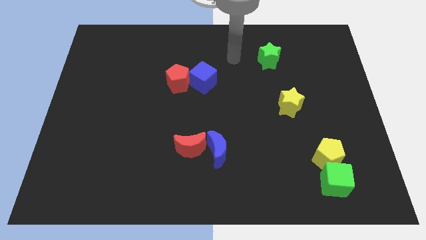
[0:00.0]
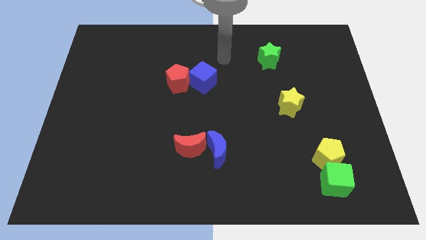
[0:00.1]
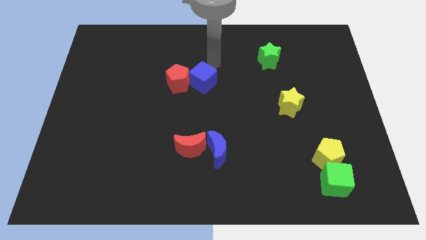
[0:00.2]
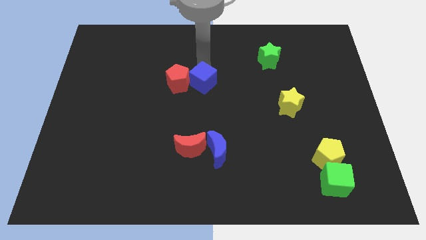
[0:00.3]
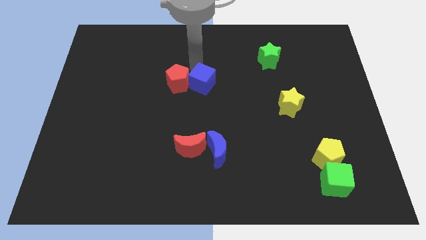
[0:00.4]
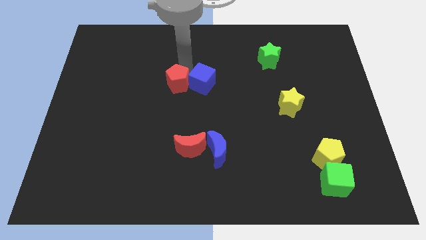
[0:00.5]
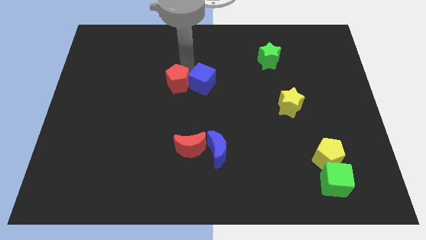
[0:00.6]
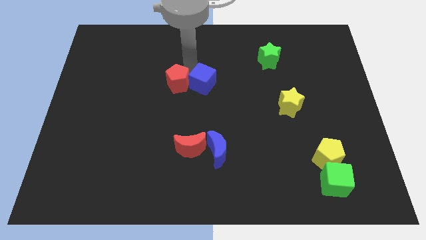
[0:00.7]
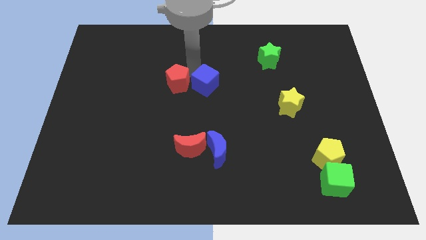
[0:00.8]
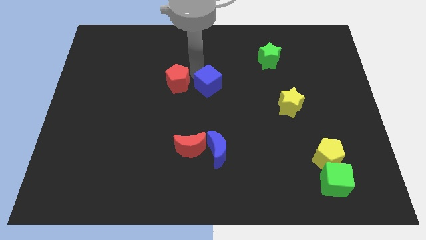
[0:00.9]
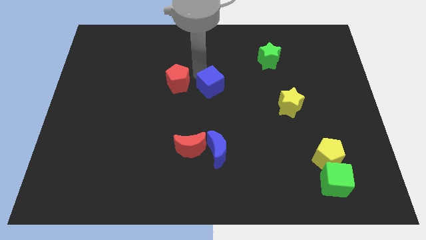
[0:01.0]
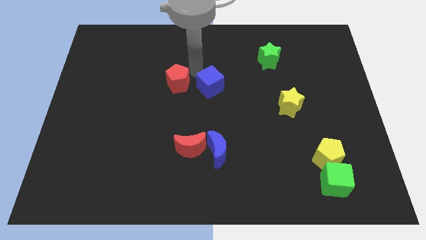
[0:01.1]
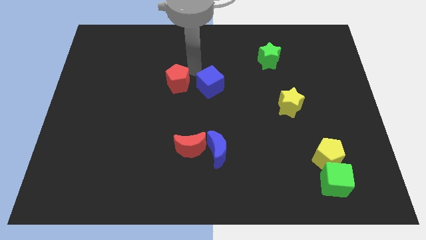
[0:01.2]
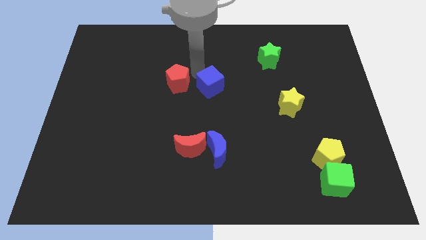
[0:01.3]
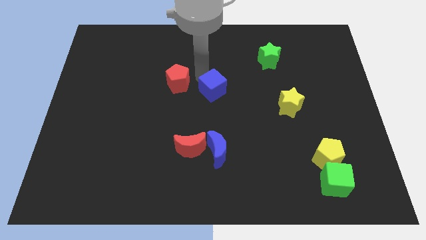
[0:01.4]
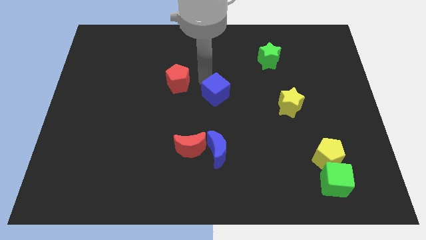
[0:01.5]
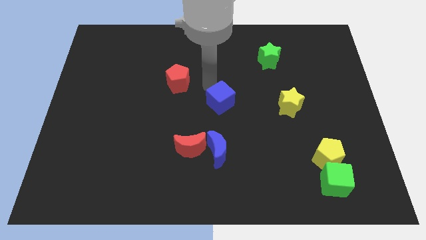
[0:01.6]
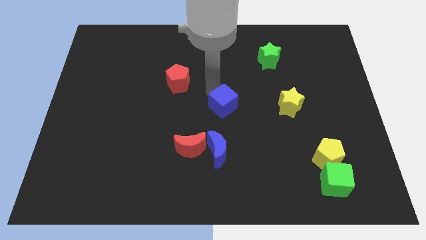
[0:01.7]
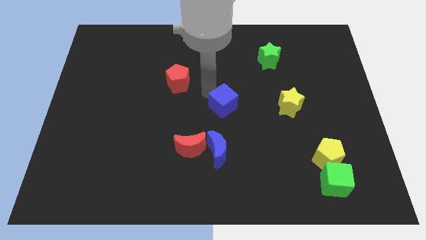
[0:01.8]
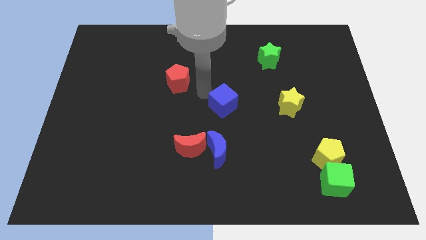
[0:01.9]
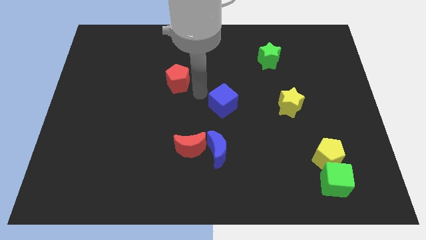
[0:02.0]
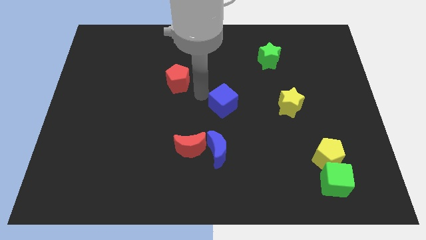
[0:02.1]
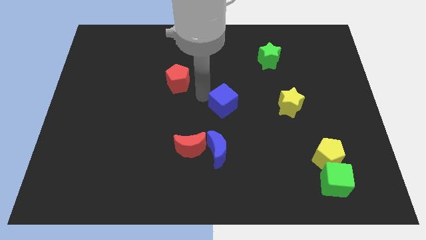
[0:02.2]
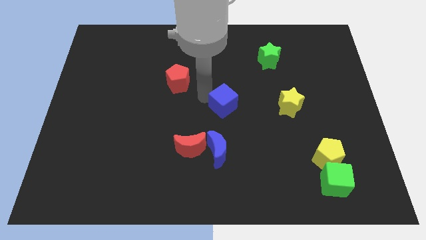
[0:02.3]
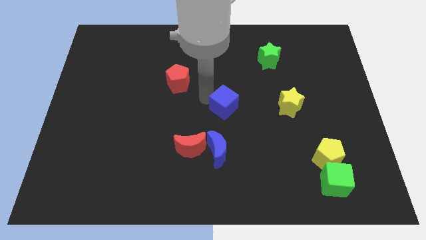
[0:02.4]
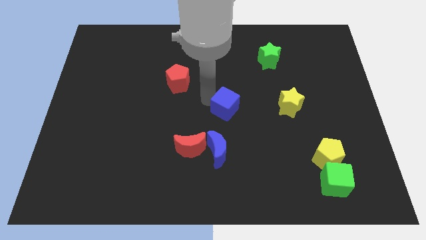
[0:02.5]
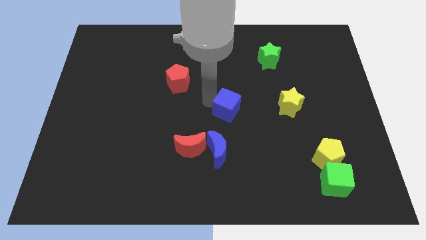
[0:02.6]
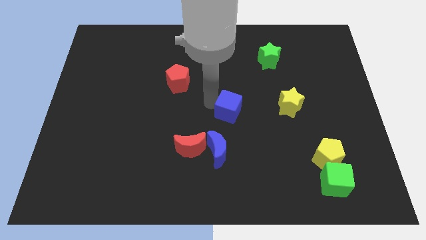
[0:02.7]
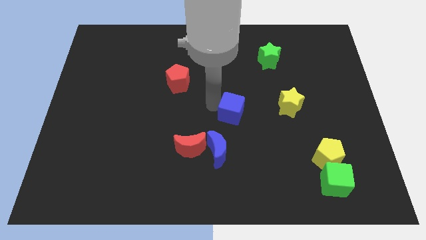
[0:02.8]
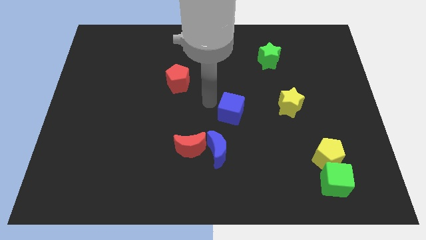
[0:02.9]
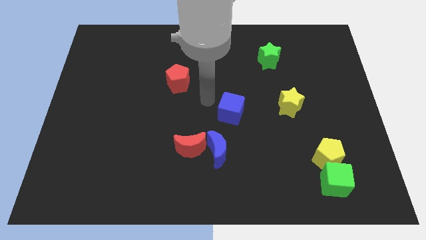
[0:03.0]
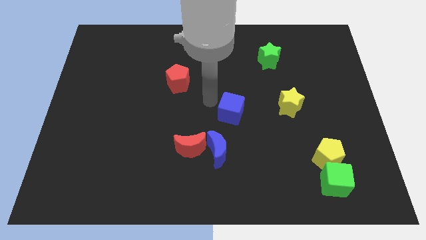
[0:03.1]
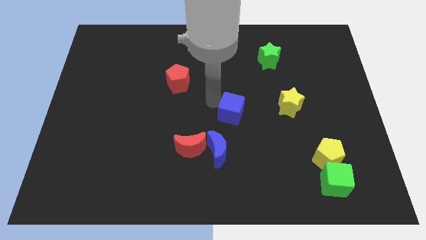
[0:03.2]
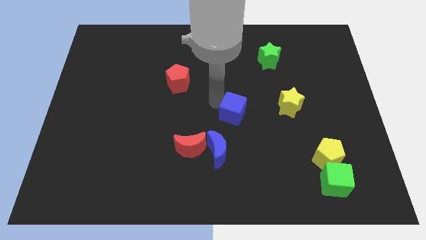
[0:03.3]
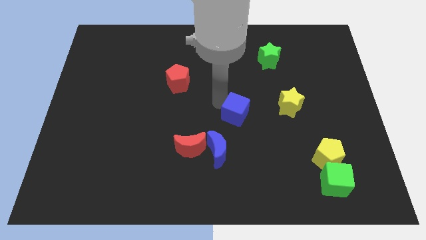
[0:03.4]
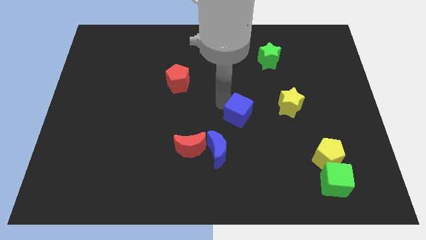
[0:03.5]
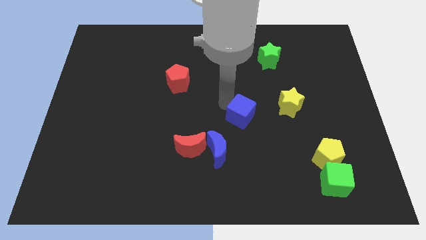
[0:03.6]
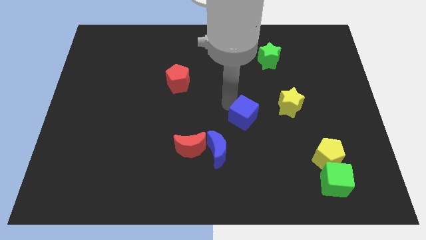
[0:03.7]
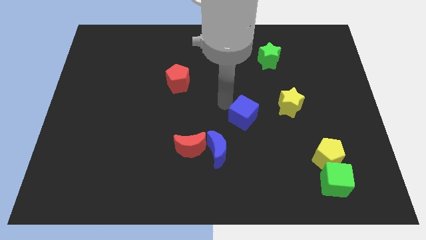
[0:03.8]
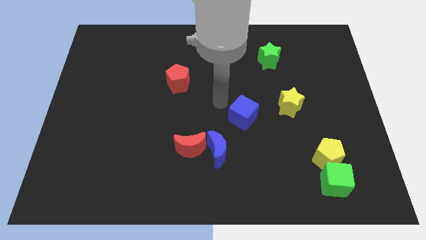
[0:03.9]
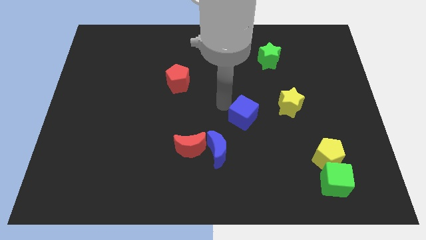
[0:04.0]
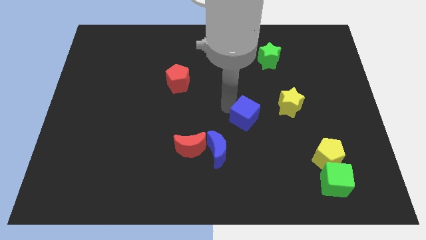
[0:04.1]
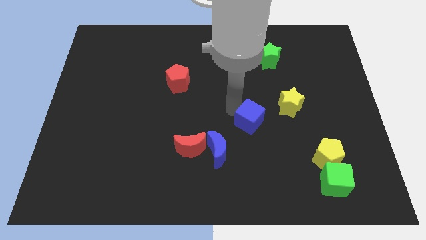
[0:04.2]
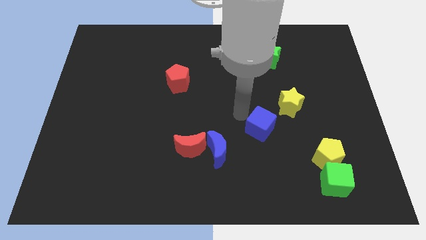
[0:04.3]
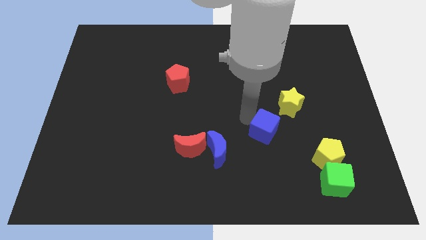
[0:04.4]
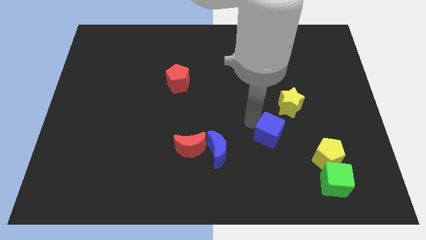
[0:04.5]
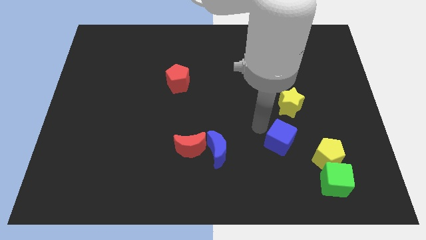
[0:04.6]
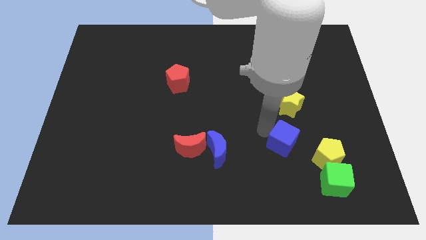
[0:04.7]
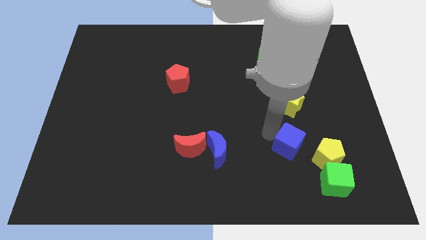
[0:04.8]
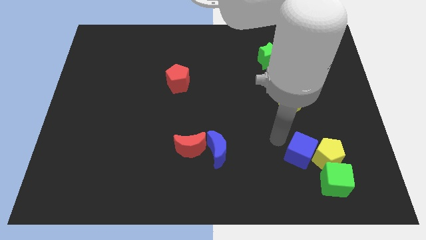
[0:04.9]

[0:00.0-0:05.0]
move the blue cube next to the yellow pentagon

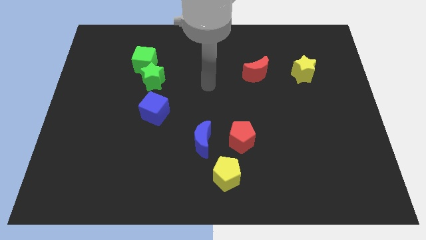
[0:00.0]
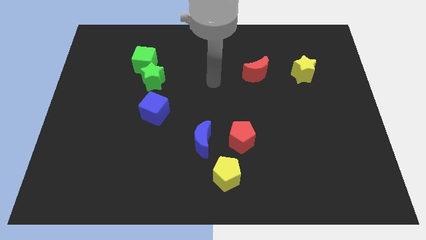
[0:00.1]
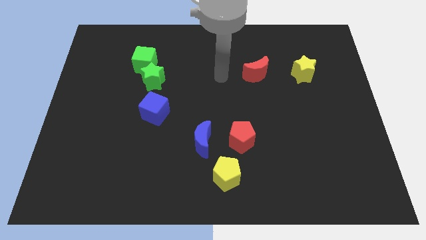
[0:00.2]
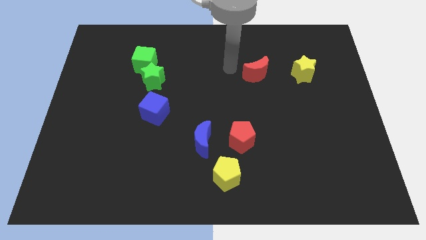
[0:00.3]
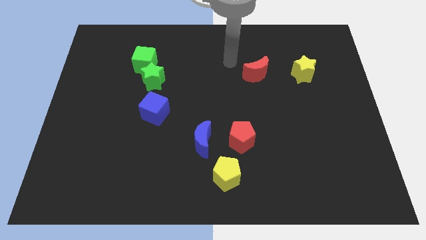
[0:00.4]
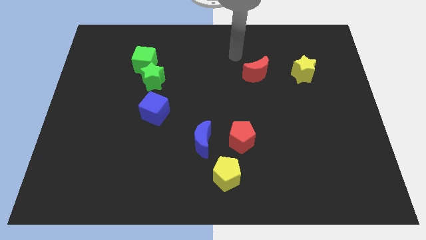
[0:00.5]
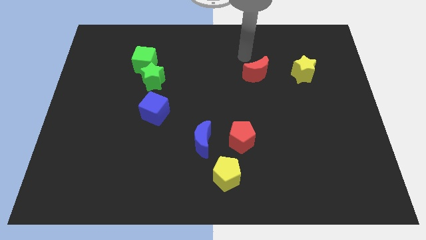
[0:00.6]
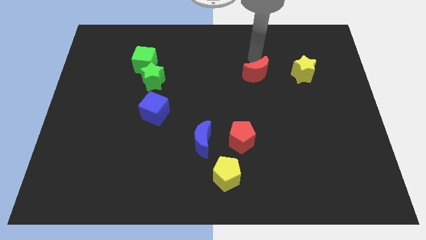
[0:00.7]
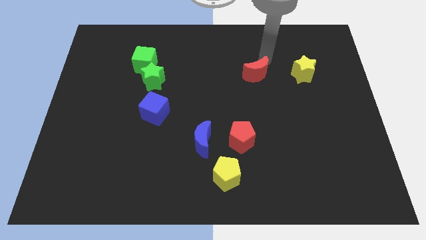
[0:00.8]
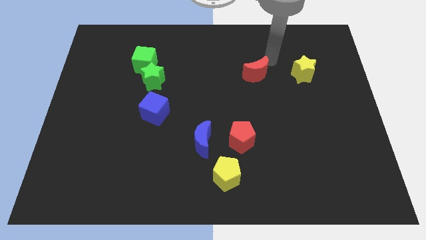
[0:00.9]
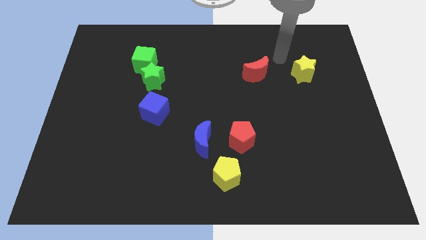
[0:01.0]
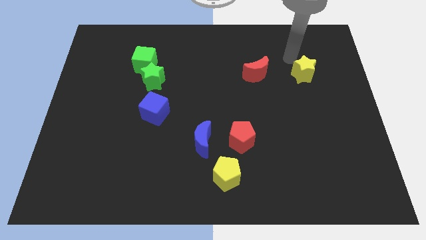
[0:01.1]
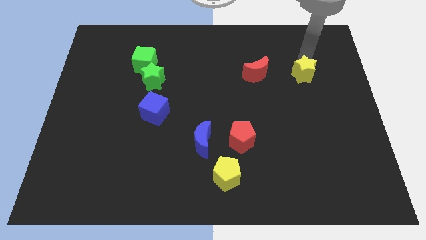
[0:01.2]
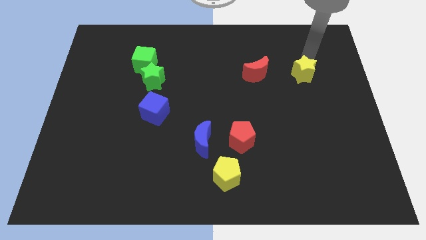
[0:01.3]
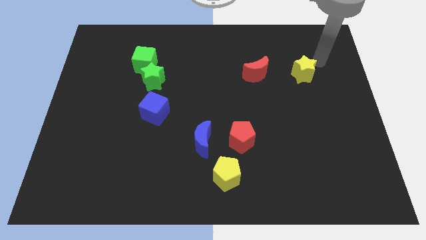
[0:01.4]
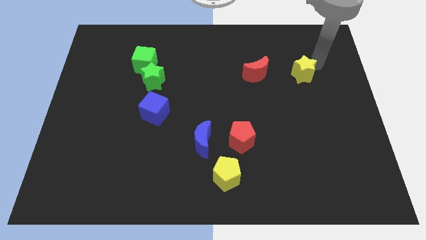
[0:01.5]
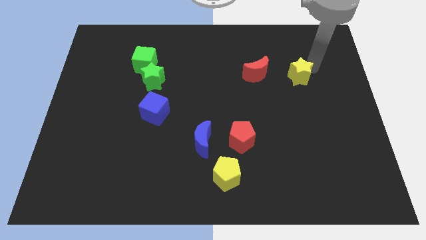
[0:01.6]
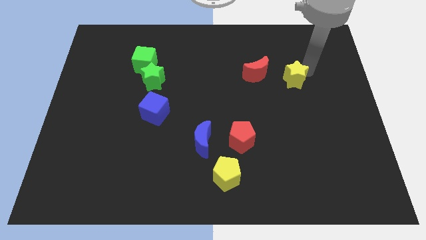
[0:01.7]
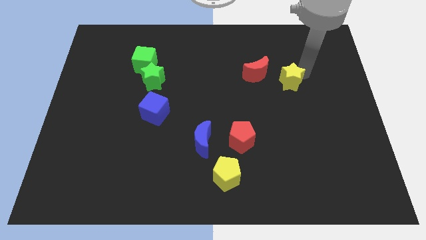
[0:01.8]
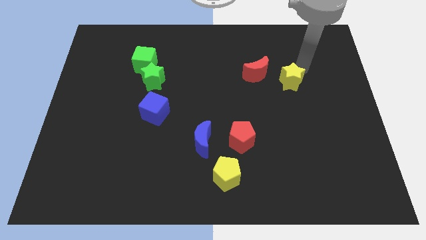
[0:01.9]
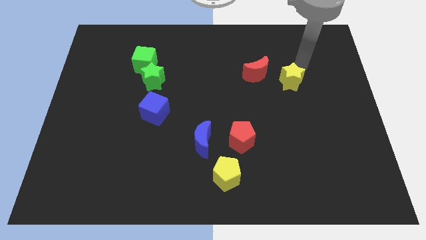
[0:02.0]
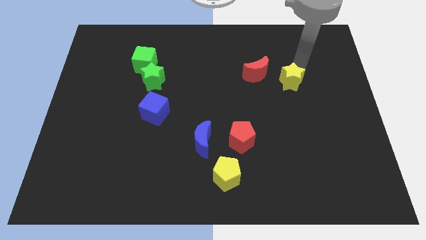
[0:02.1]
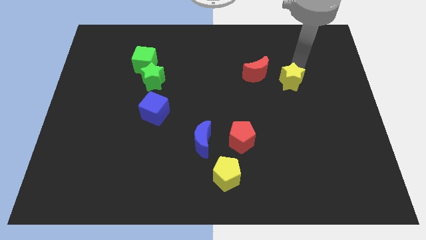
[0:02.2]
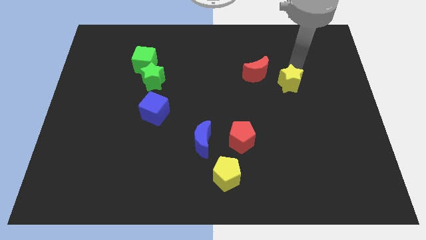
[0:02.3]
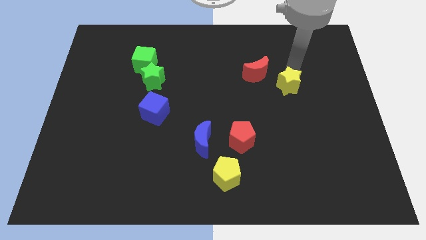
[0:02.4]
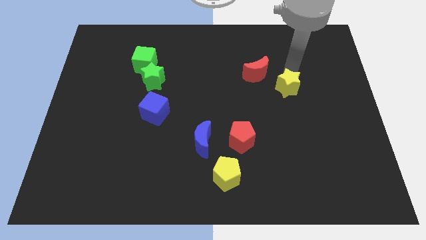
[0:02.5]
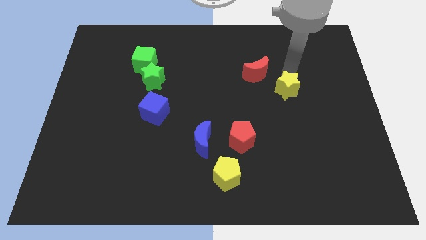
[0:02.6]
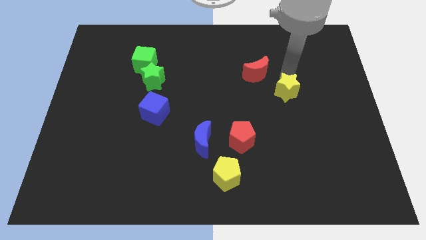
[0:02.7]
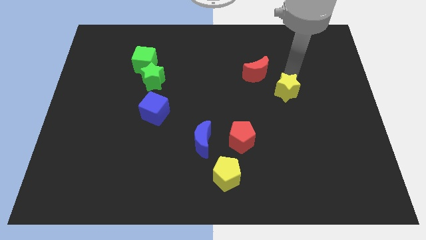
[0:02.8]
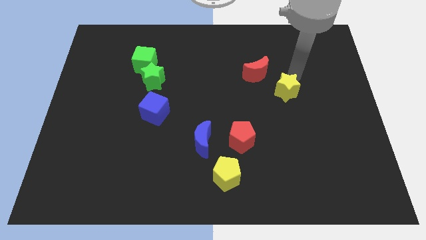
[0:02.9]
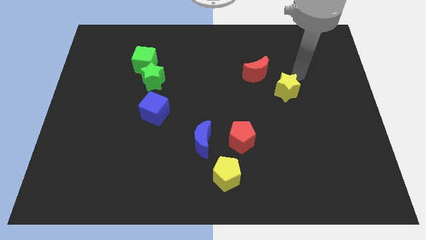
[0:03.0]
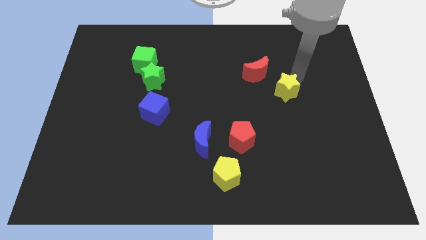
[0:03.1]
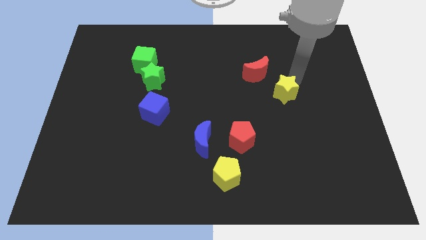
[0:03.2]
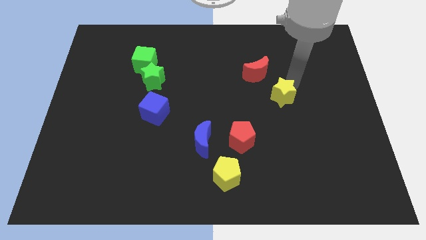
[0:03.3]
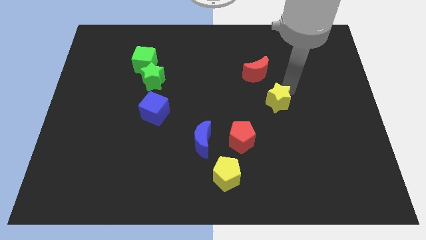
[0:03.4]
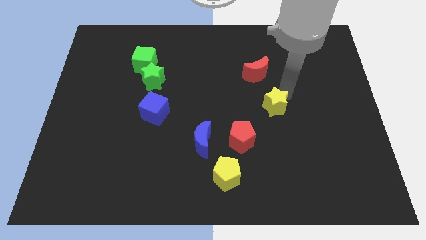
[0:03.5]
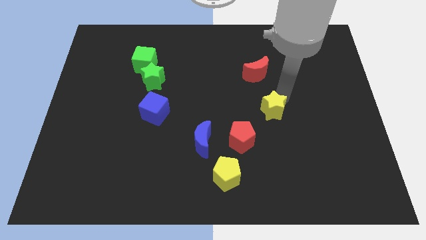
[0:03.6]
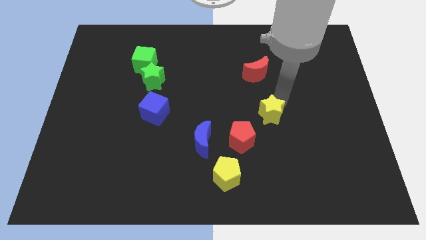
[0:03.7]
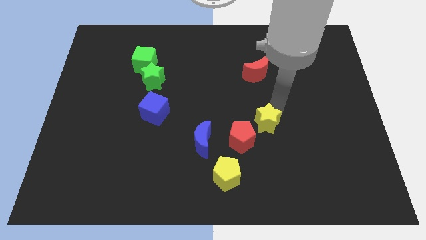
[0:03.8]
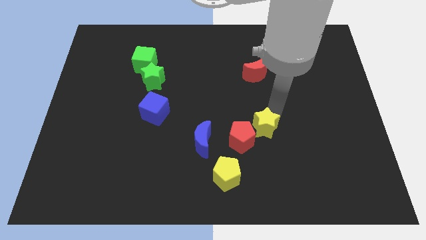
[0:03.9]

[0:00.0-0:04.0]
push the yellow star next to the red pentagon
